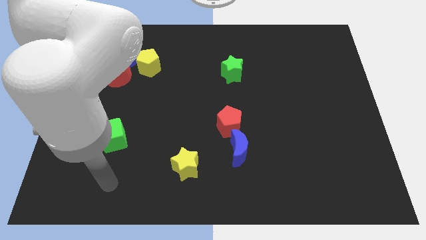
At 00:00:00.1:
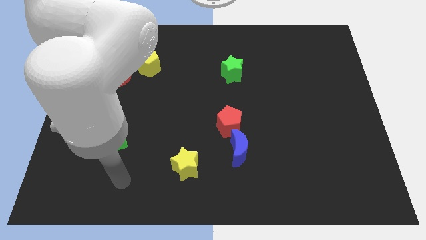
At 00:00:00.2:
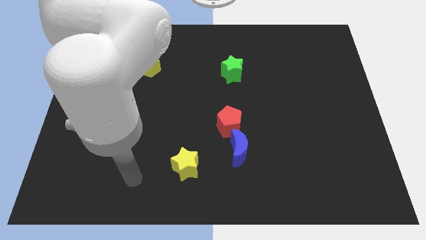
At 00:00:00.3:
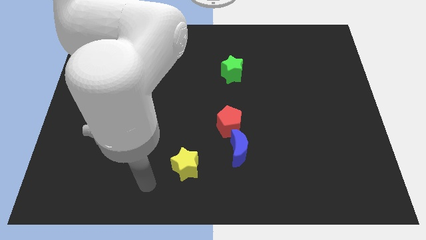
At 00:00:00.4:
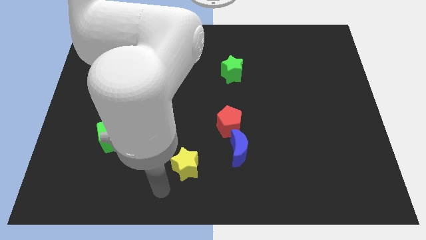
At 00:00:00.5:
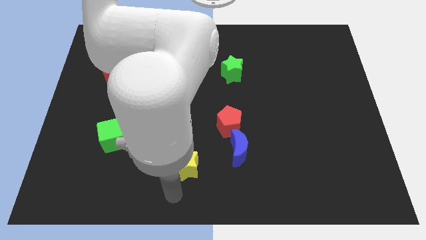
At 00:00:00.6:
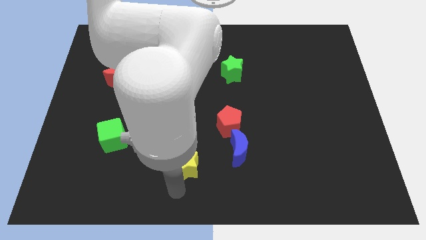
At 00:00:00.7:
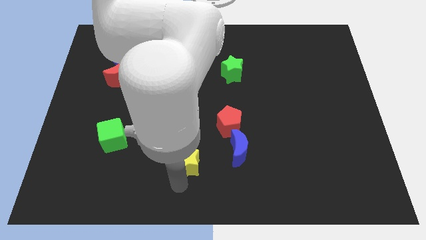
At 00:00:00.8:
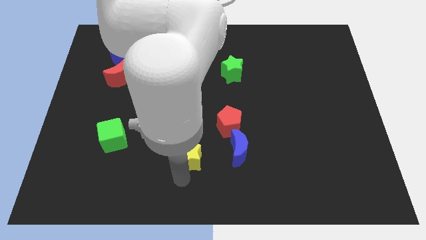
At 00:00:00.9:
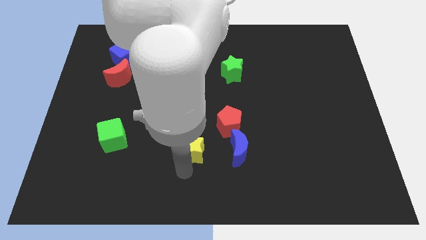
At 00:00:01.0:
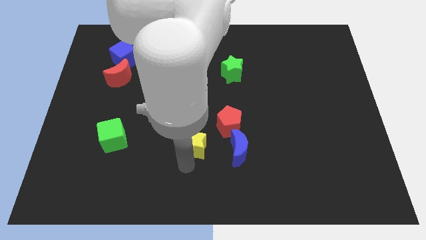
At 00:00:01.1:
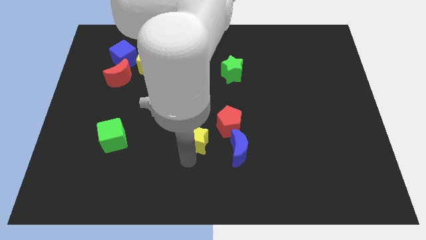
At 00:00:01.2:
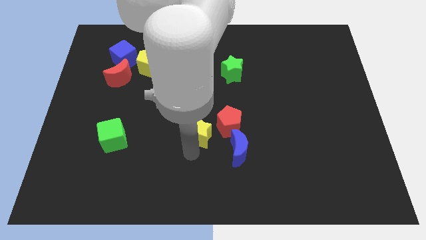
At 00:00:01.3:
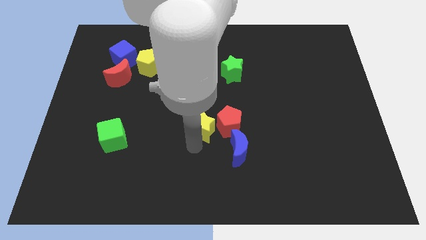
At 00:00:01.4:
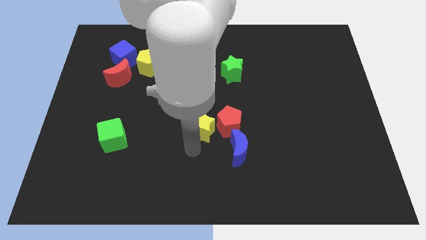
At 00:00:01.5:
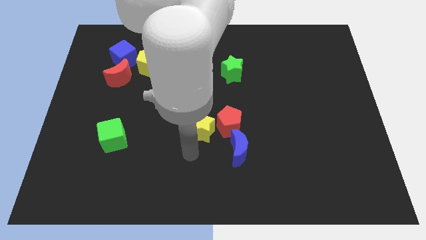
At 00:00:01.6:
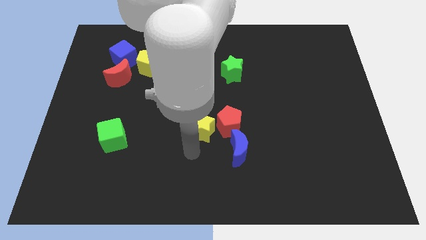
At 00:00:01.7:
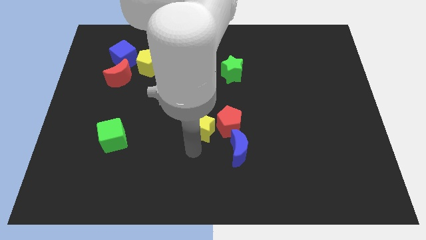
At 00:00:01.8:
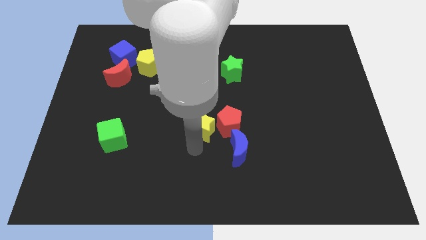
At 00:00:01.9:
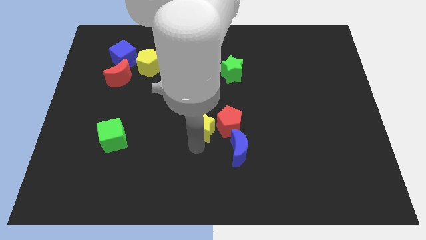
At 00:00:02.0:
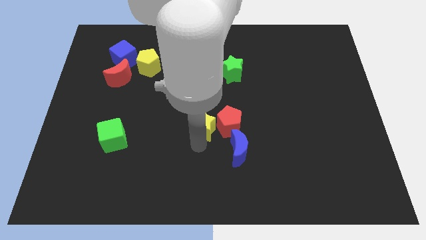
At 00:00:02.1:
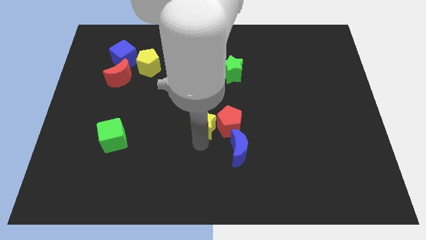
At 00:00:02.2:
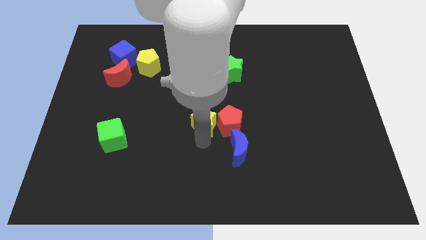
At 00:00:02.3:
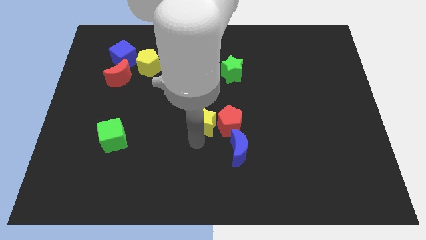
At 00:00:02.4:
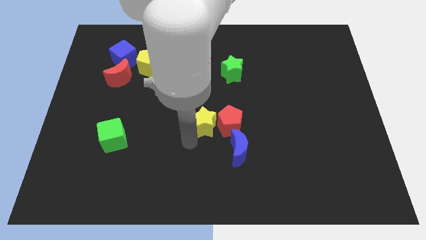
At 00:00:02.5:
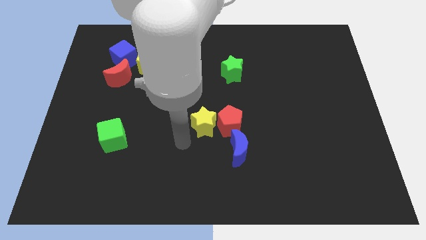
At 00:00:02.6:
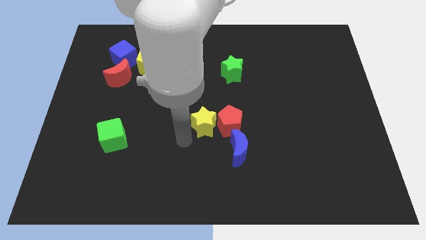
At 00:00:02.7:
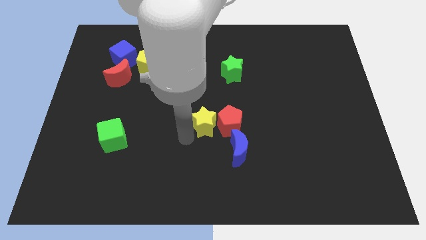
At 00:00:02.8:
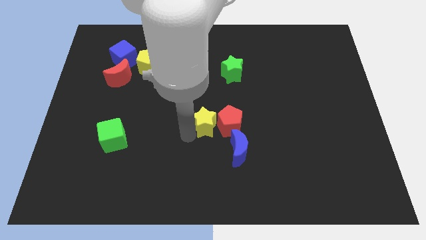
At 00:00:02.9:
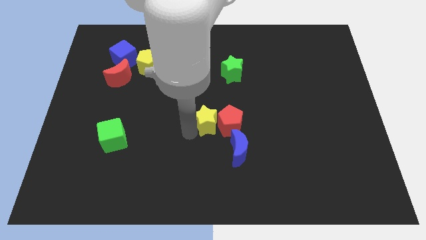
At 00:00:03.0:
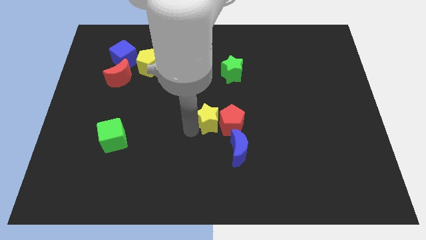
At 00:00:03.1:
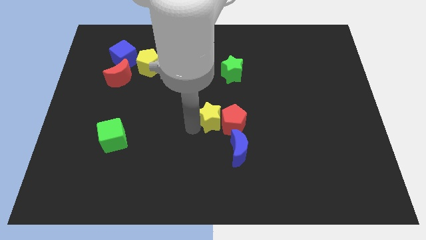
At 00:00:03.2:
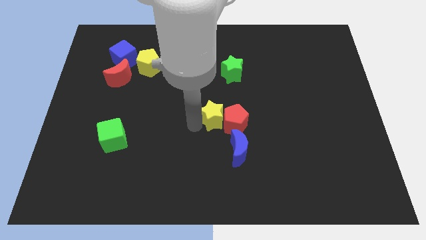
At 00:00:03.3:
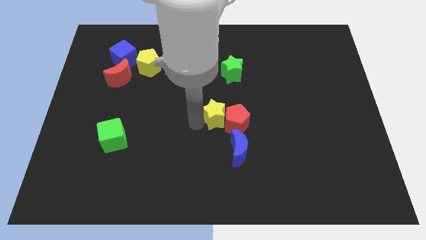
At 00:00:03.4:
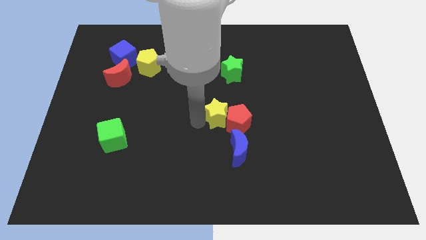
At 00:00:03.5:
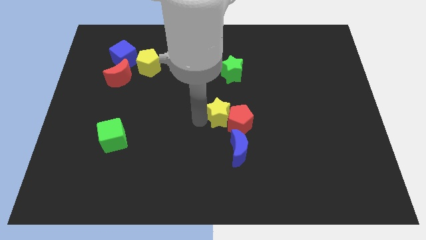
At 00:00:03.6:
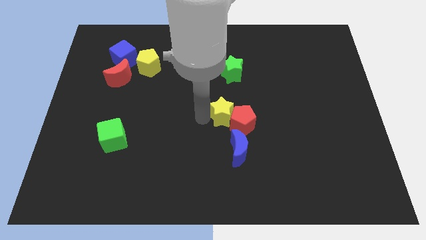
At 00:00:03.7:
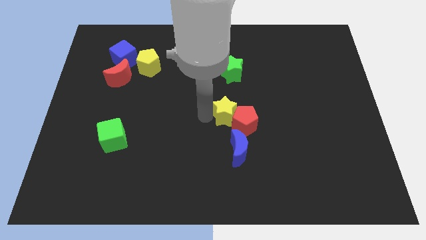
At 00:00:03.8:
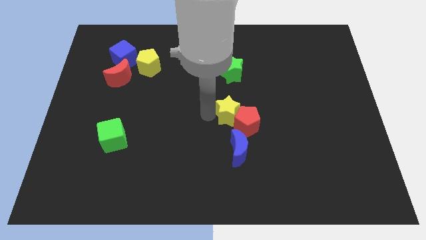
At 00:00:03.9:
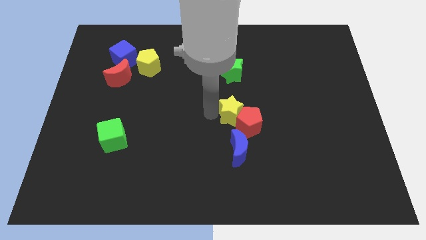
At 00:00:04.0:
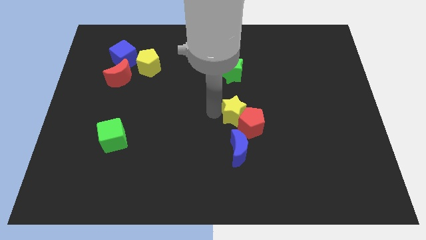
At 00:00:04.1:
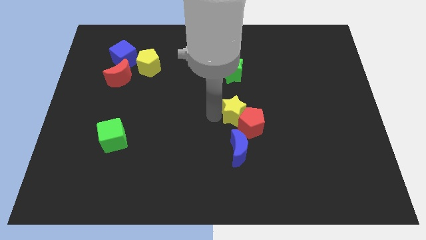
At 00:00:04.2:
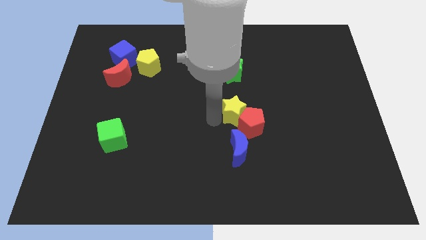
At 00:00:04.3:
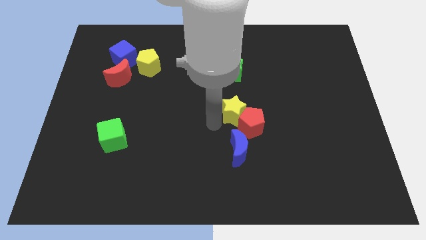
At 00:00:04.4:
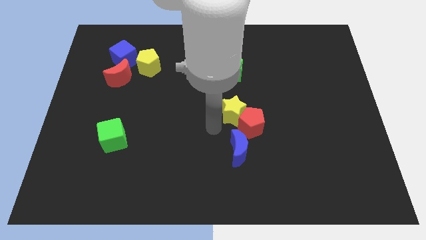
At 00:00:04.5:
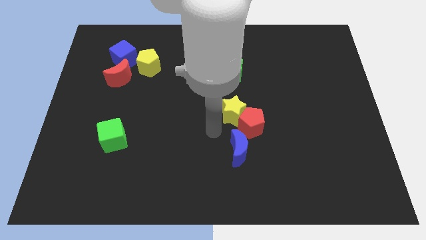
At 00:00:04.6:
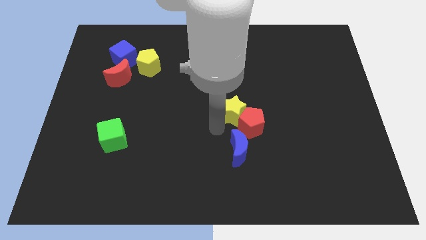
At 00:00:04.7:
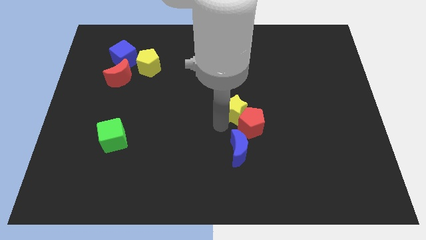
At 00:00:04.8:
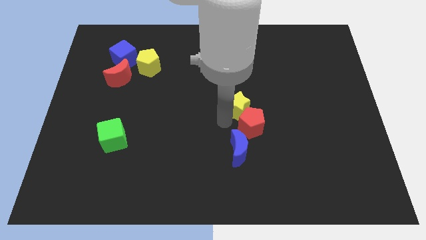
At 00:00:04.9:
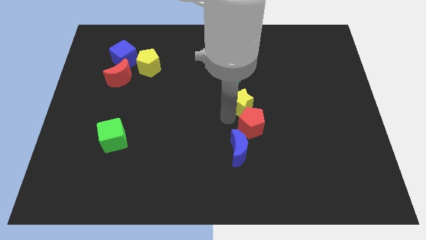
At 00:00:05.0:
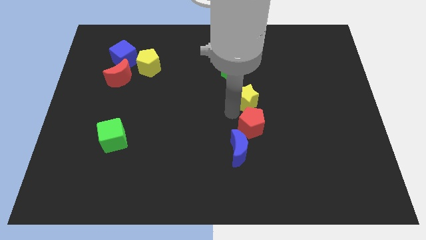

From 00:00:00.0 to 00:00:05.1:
move the yellow star up and then right

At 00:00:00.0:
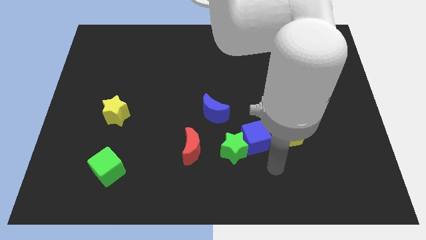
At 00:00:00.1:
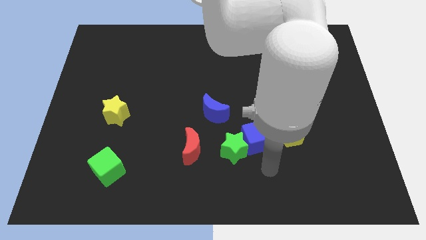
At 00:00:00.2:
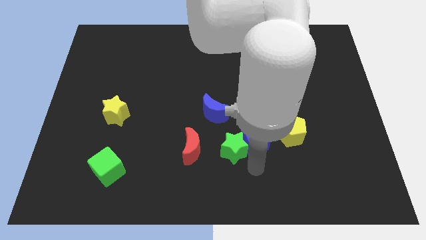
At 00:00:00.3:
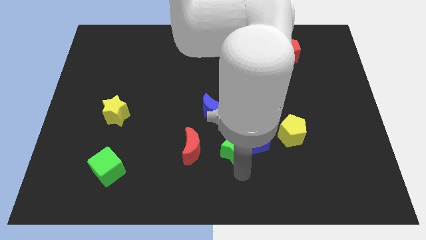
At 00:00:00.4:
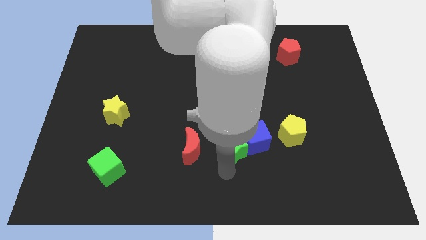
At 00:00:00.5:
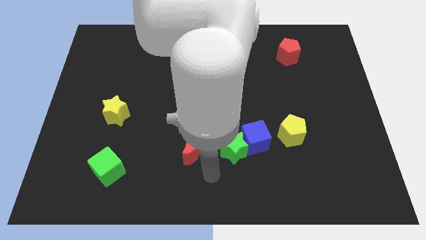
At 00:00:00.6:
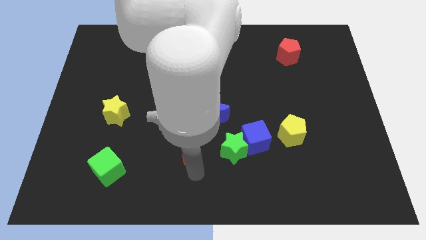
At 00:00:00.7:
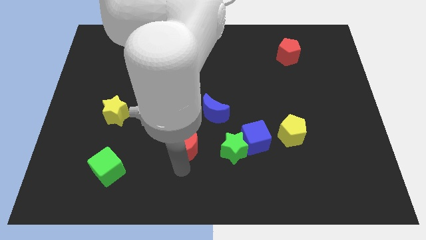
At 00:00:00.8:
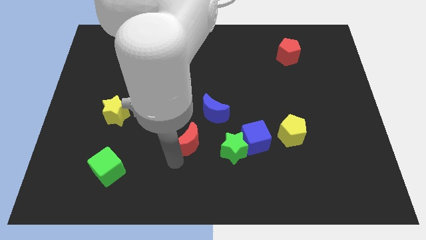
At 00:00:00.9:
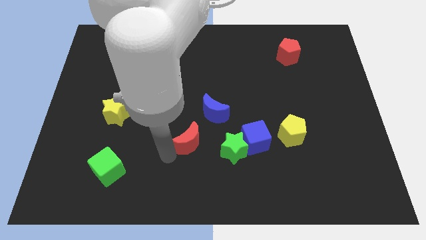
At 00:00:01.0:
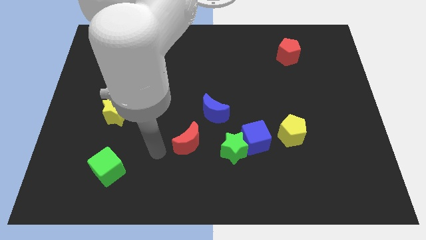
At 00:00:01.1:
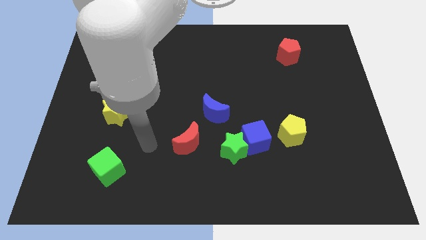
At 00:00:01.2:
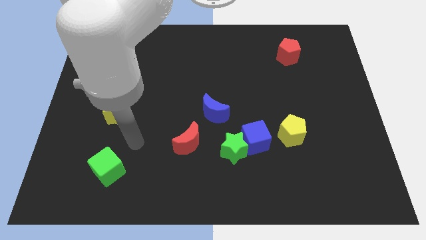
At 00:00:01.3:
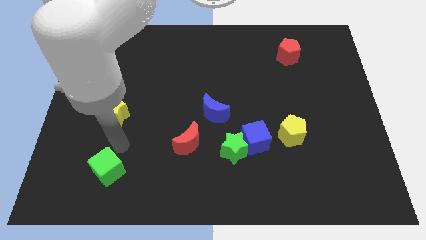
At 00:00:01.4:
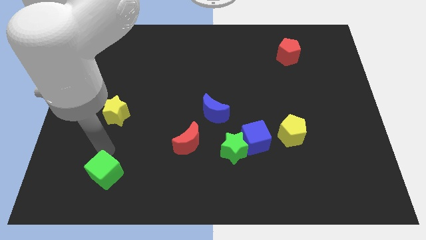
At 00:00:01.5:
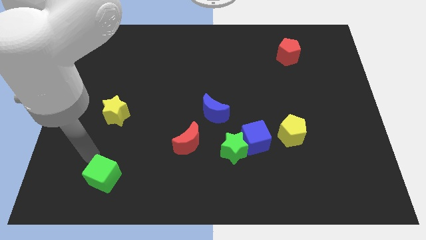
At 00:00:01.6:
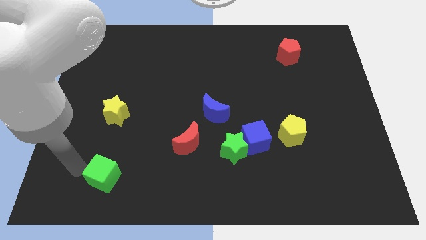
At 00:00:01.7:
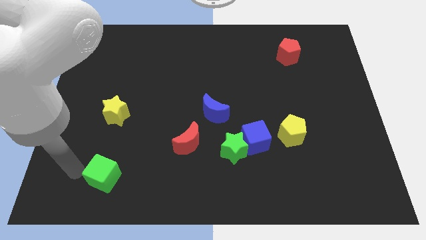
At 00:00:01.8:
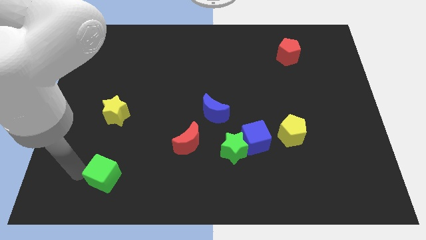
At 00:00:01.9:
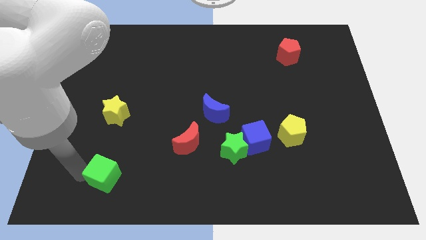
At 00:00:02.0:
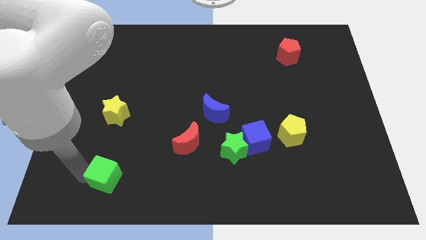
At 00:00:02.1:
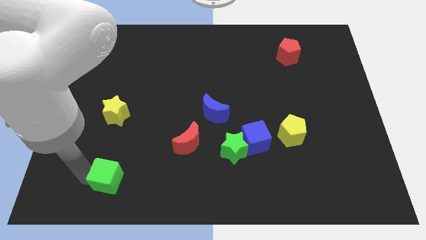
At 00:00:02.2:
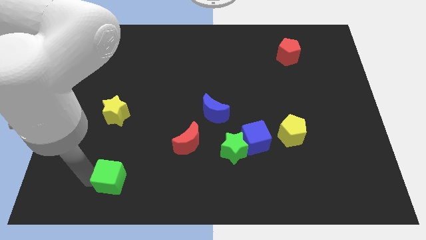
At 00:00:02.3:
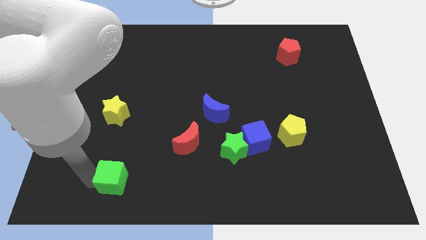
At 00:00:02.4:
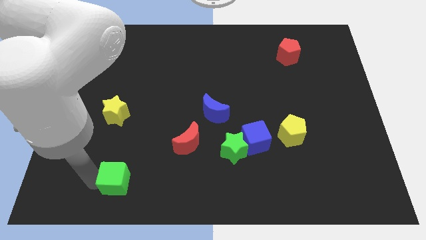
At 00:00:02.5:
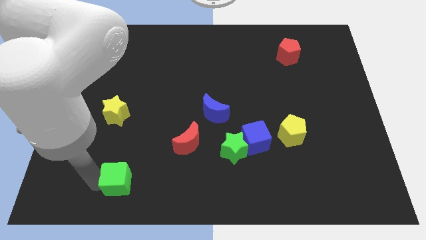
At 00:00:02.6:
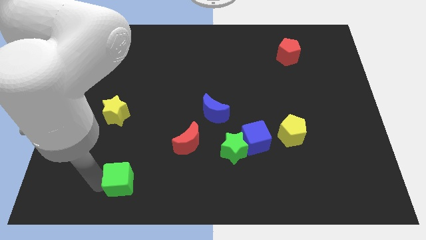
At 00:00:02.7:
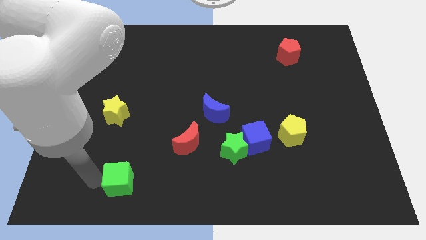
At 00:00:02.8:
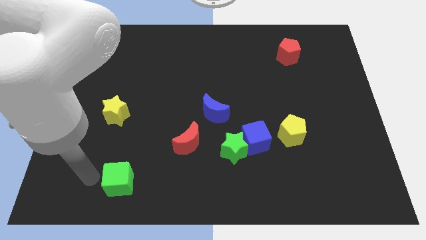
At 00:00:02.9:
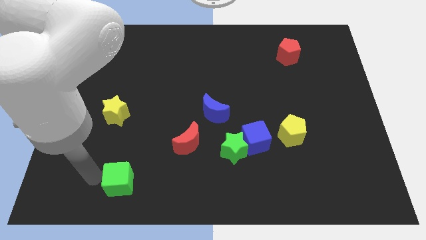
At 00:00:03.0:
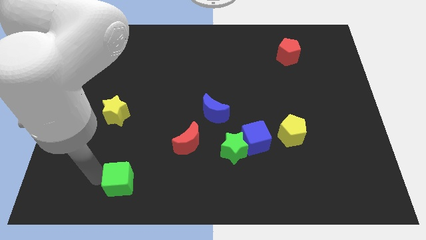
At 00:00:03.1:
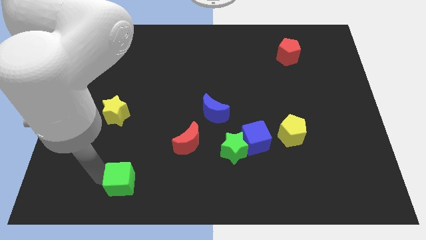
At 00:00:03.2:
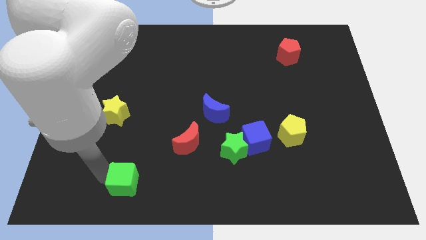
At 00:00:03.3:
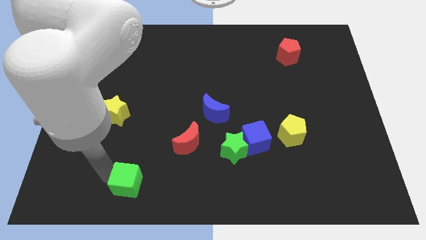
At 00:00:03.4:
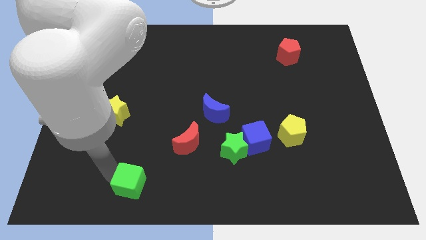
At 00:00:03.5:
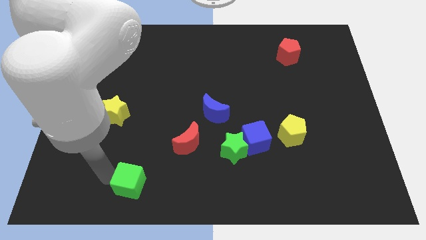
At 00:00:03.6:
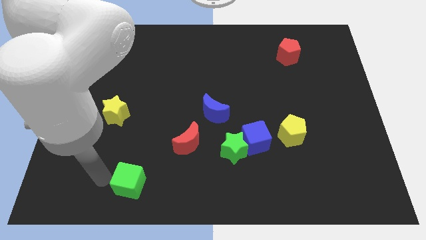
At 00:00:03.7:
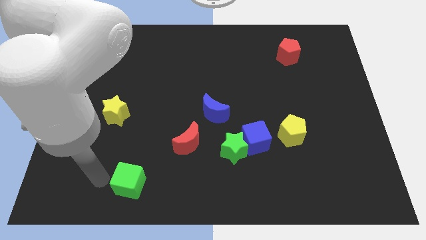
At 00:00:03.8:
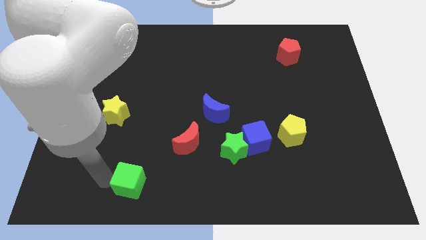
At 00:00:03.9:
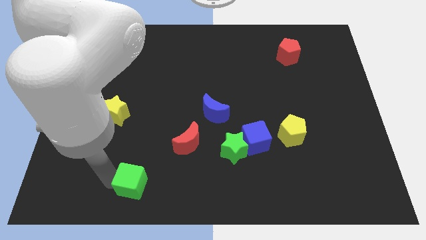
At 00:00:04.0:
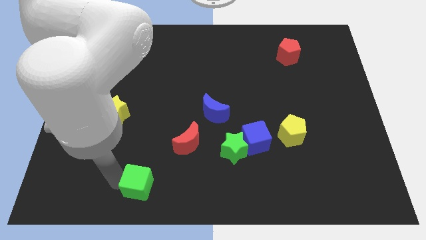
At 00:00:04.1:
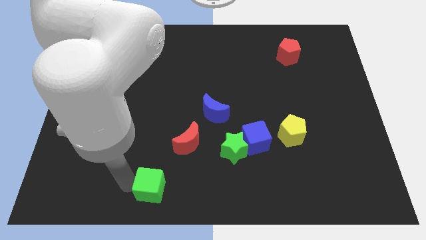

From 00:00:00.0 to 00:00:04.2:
move the green cube a little bit right
